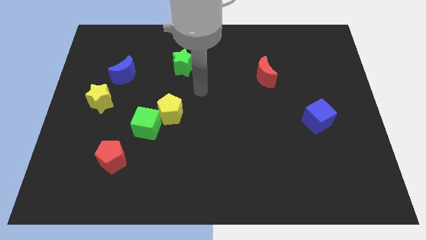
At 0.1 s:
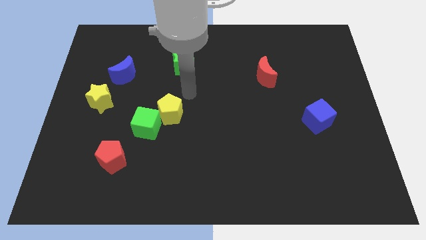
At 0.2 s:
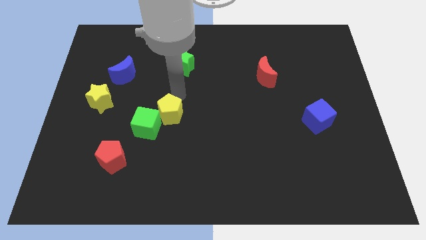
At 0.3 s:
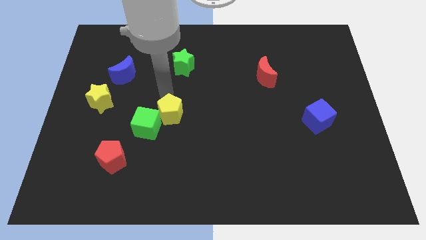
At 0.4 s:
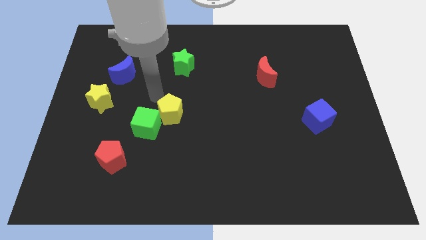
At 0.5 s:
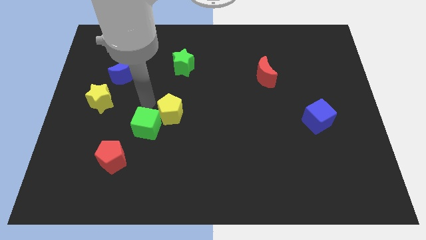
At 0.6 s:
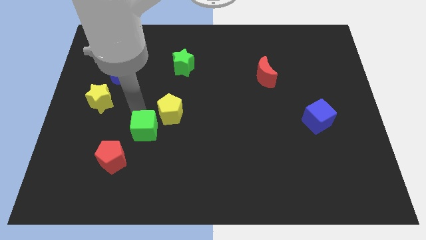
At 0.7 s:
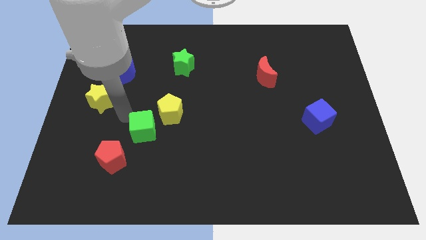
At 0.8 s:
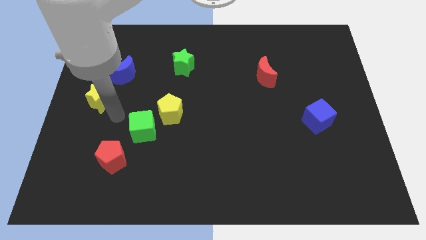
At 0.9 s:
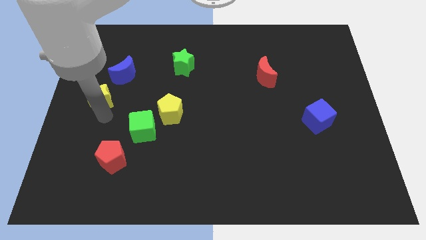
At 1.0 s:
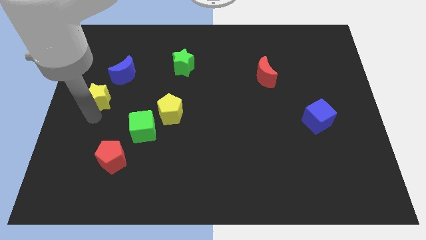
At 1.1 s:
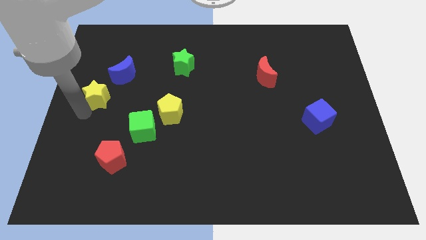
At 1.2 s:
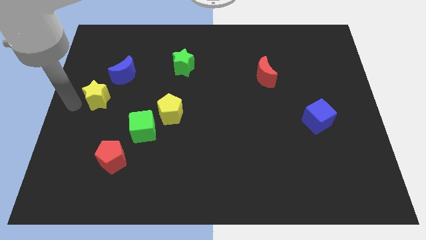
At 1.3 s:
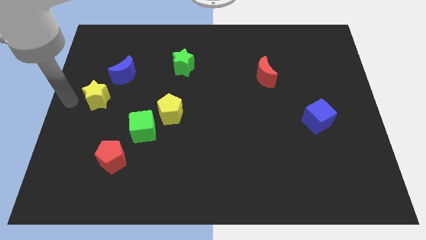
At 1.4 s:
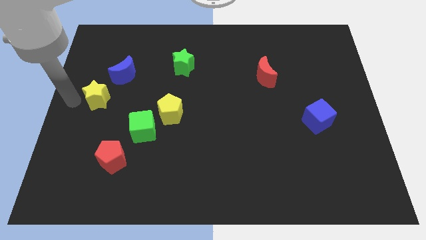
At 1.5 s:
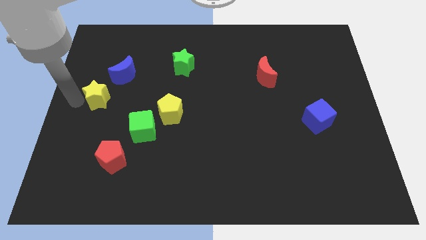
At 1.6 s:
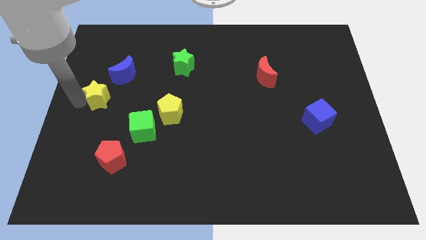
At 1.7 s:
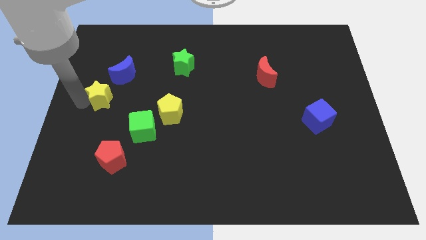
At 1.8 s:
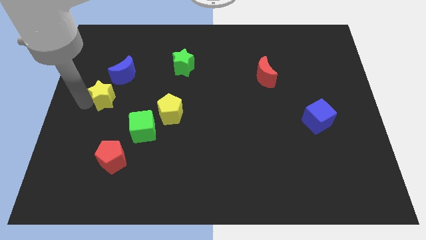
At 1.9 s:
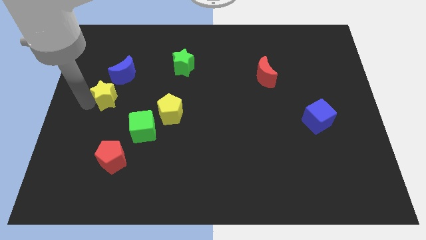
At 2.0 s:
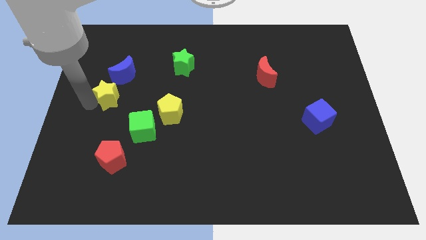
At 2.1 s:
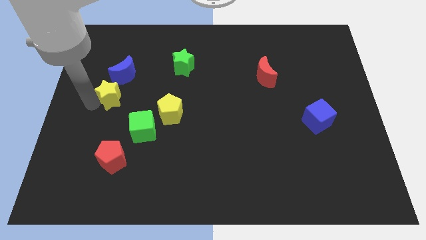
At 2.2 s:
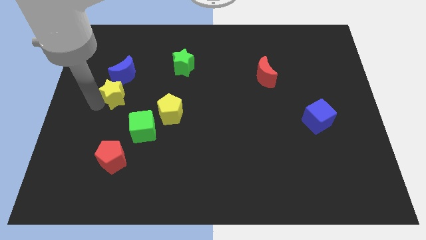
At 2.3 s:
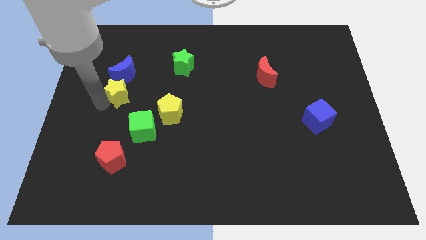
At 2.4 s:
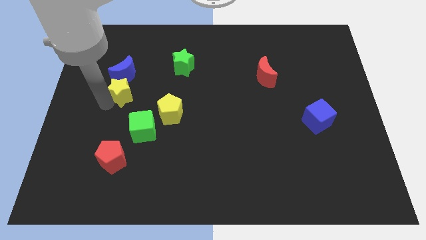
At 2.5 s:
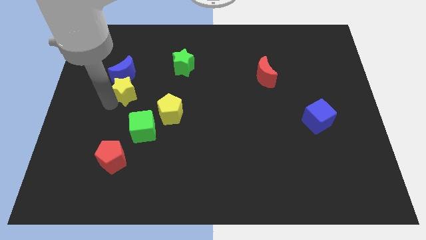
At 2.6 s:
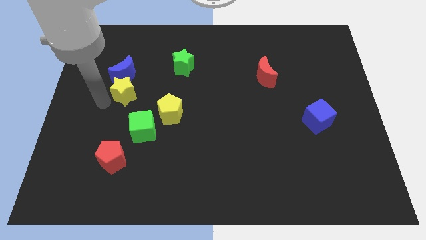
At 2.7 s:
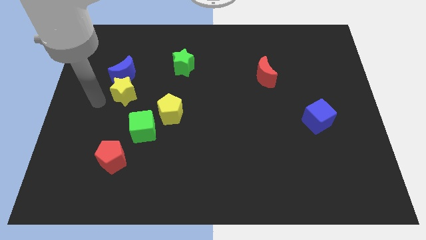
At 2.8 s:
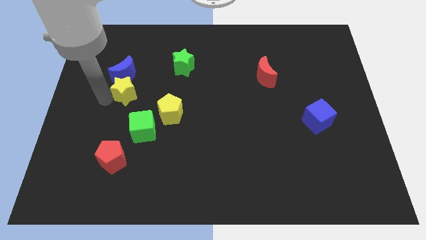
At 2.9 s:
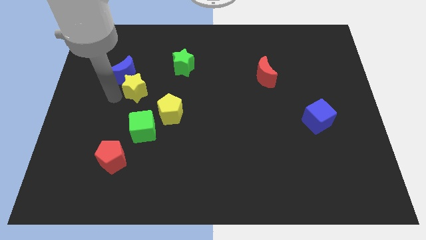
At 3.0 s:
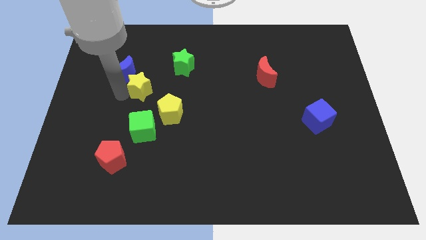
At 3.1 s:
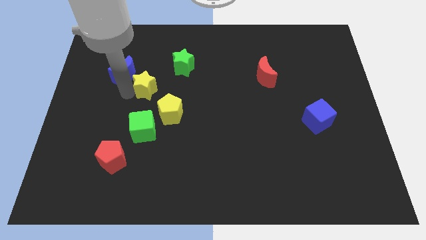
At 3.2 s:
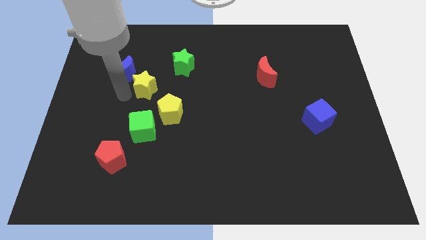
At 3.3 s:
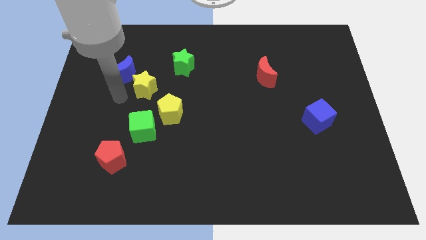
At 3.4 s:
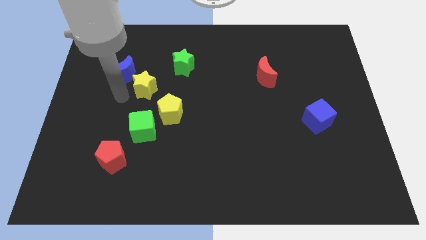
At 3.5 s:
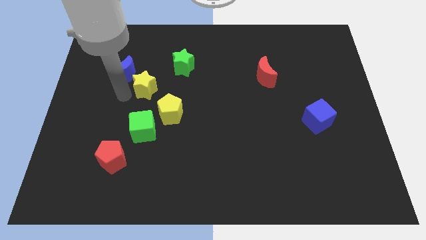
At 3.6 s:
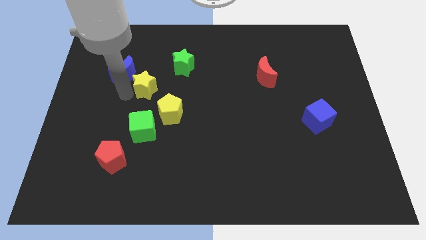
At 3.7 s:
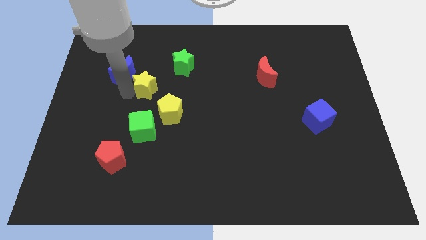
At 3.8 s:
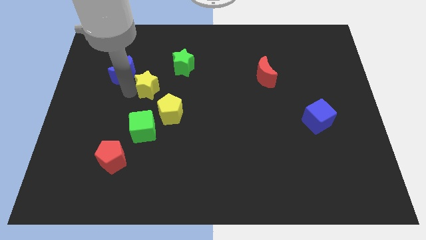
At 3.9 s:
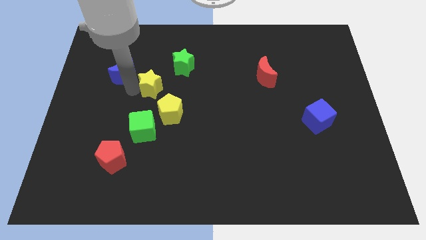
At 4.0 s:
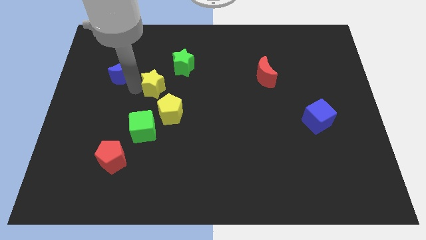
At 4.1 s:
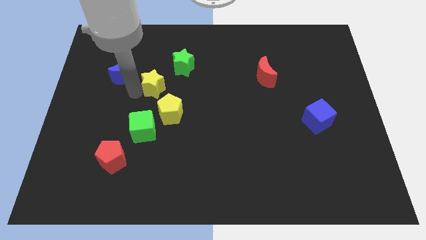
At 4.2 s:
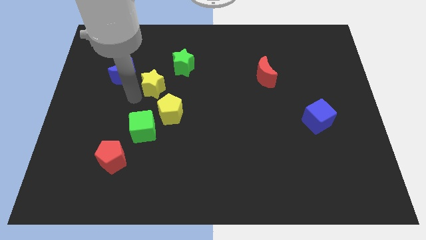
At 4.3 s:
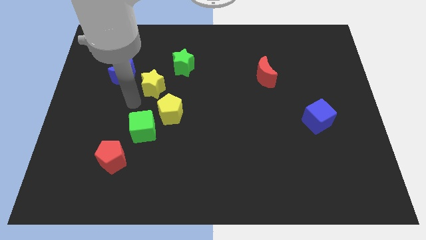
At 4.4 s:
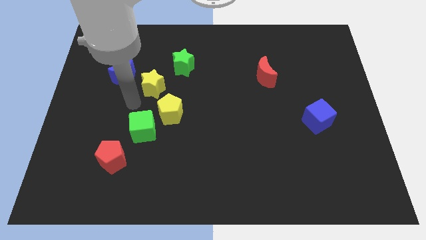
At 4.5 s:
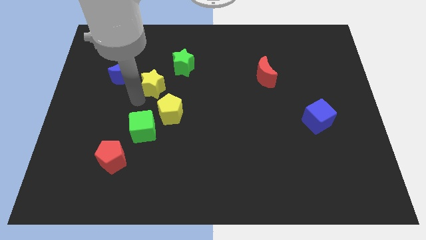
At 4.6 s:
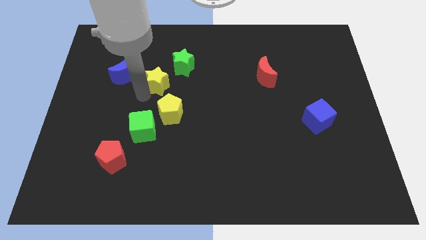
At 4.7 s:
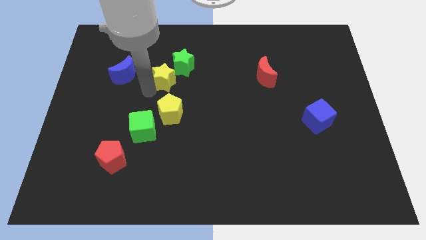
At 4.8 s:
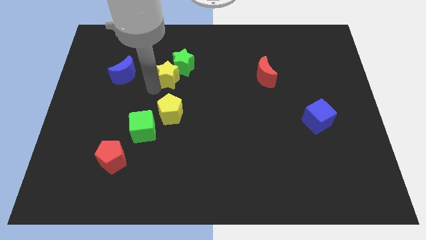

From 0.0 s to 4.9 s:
put the yellow star next to the green star

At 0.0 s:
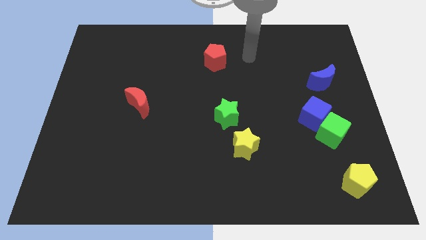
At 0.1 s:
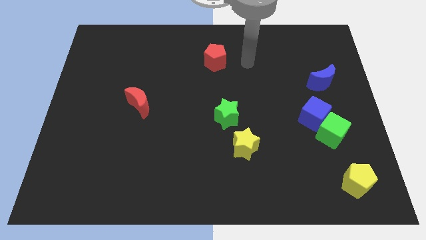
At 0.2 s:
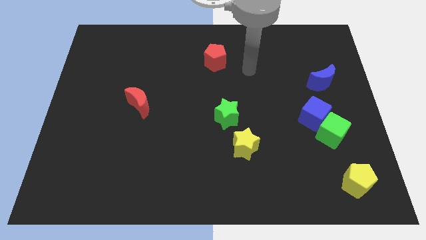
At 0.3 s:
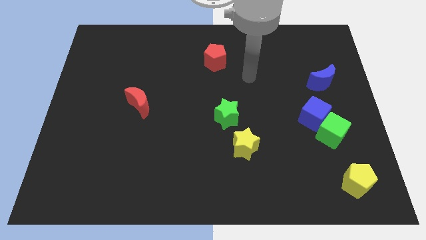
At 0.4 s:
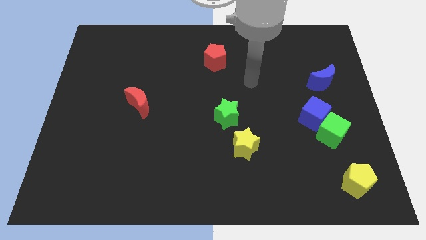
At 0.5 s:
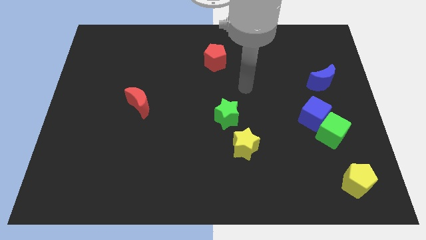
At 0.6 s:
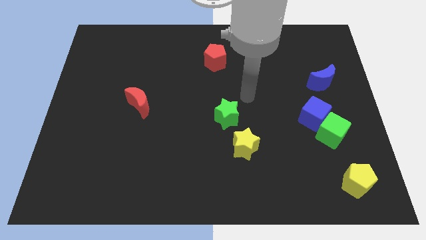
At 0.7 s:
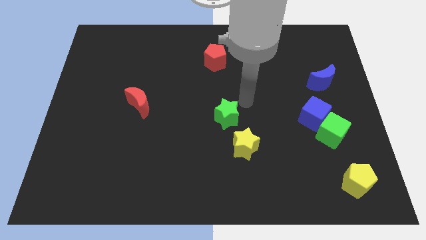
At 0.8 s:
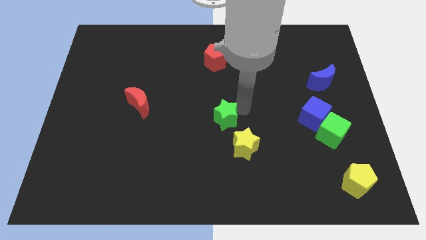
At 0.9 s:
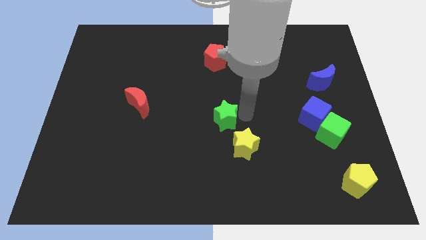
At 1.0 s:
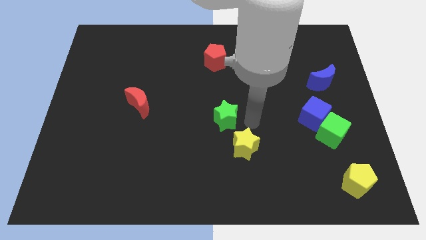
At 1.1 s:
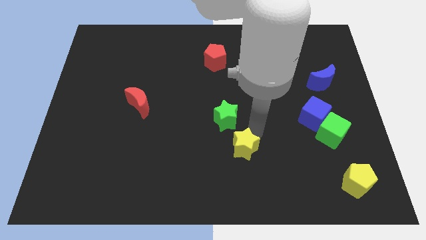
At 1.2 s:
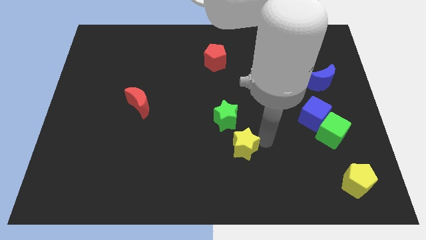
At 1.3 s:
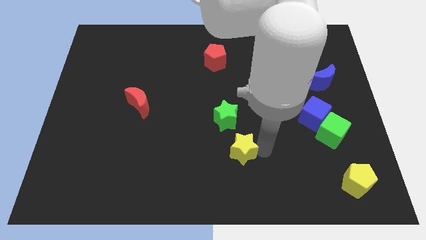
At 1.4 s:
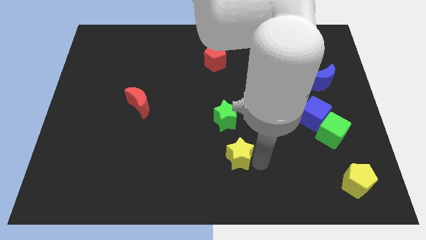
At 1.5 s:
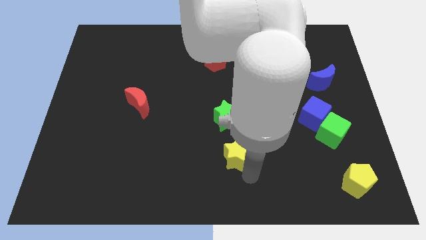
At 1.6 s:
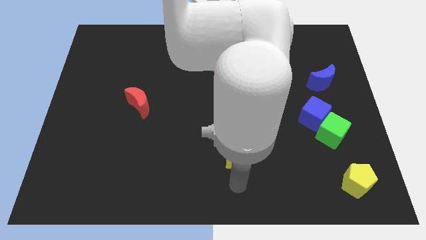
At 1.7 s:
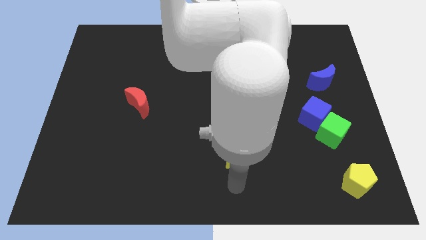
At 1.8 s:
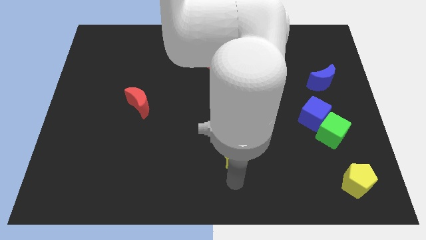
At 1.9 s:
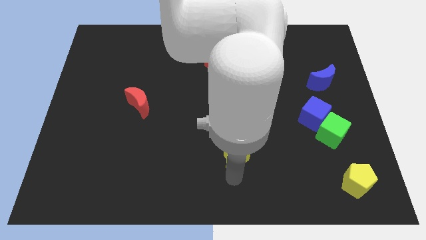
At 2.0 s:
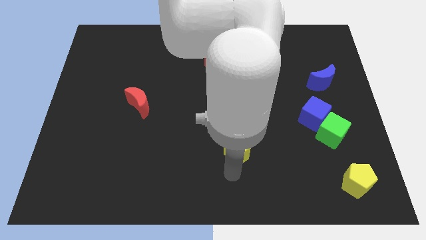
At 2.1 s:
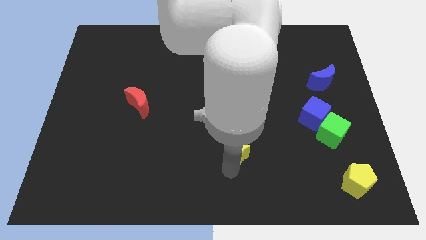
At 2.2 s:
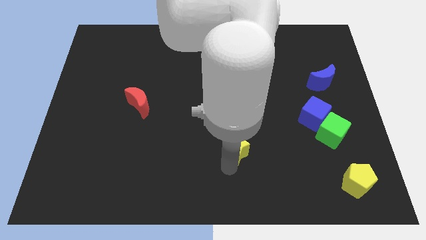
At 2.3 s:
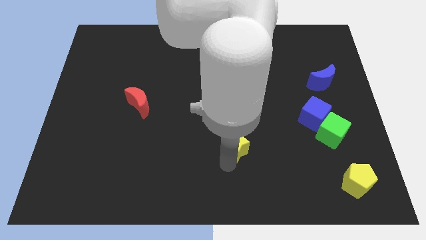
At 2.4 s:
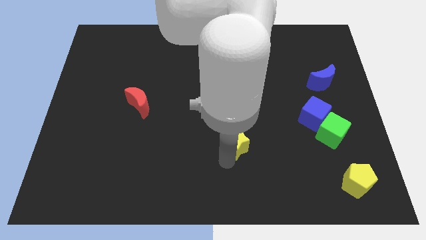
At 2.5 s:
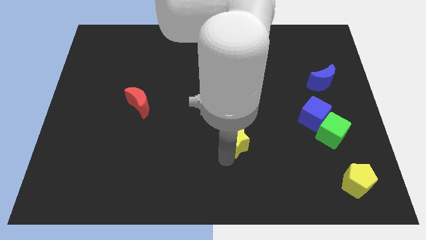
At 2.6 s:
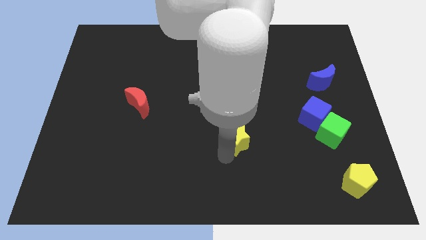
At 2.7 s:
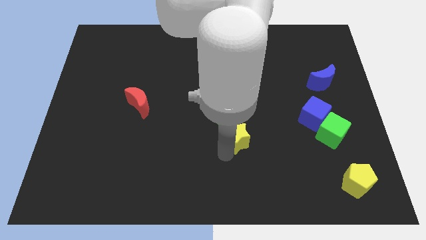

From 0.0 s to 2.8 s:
slide the yellow star towards the green star
